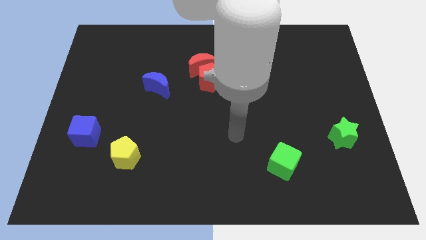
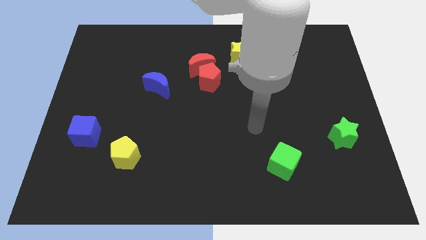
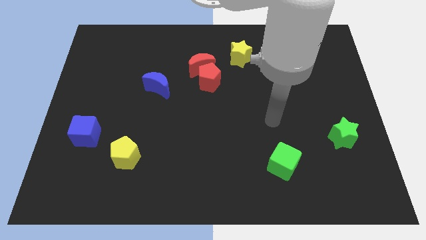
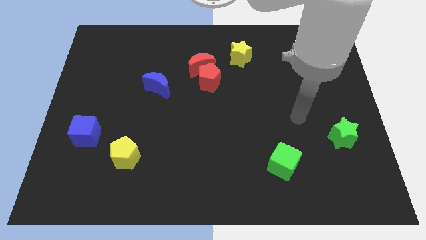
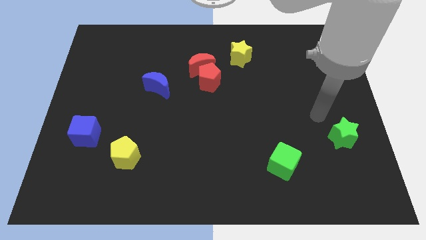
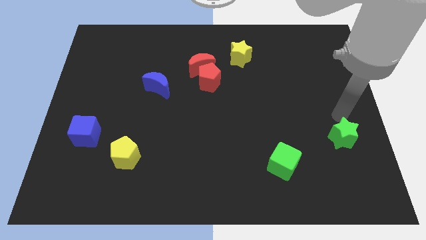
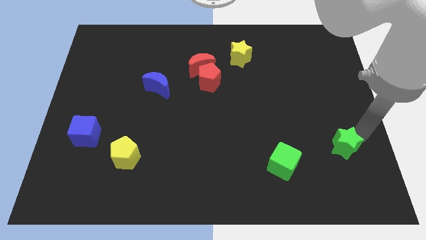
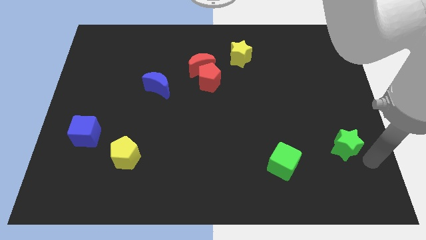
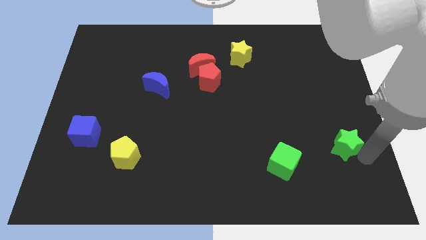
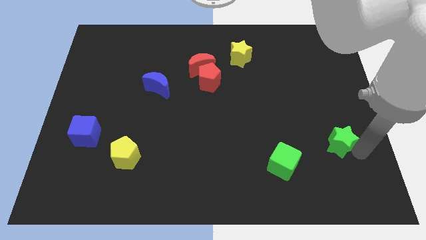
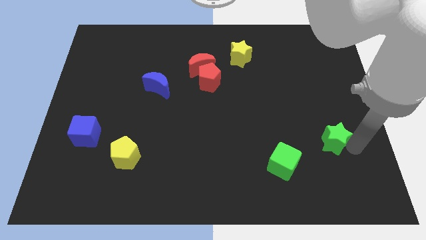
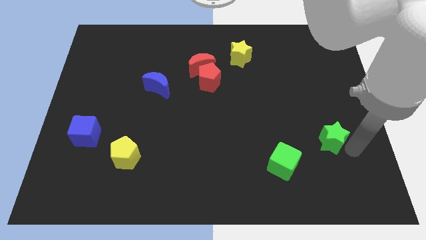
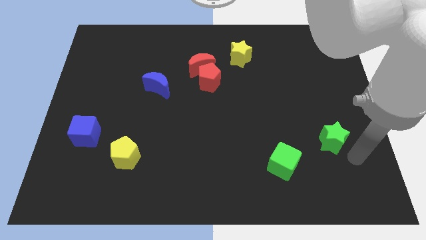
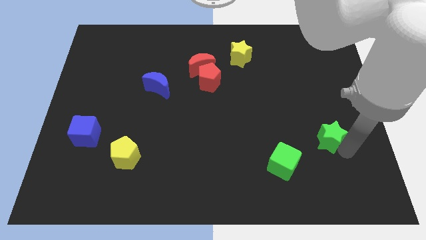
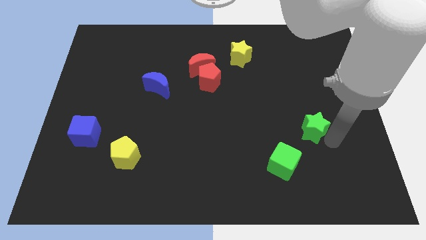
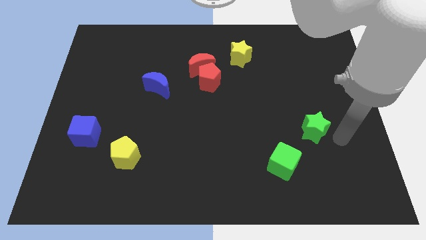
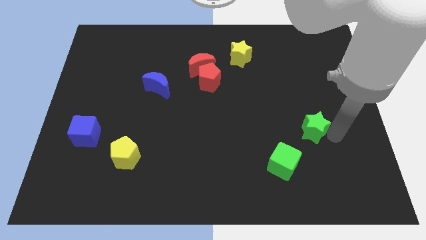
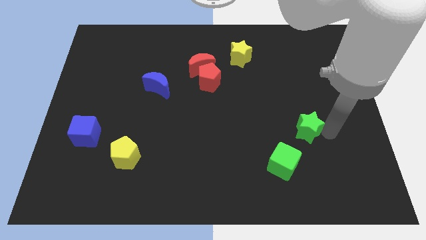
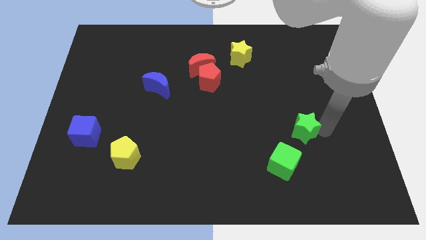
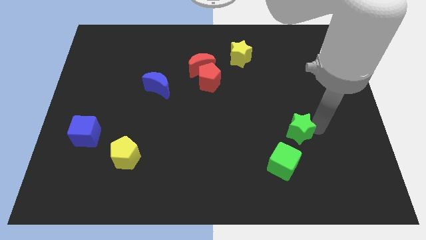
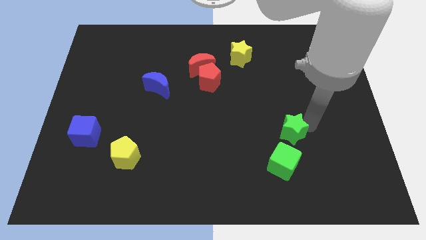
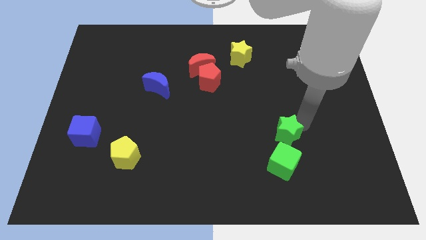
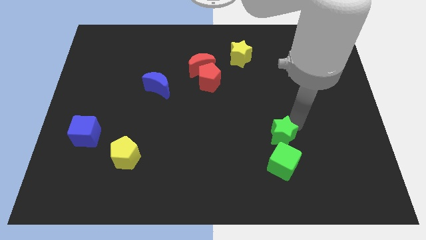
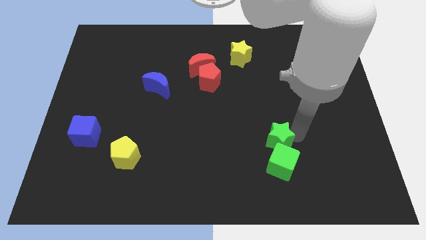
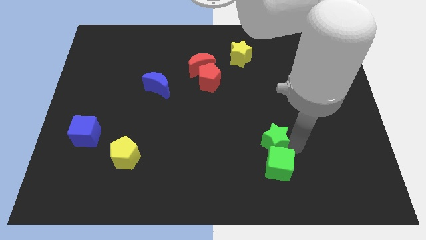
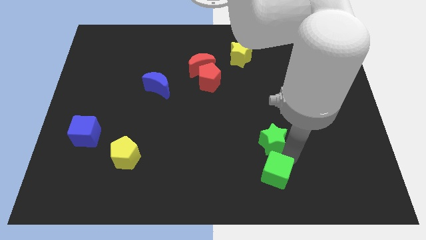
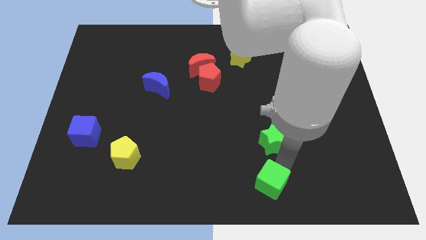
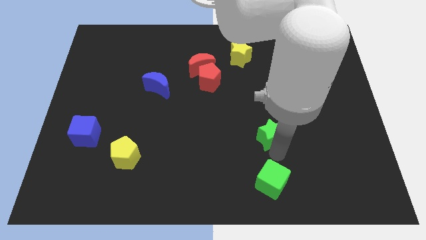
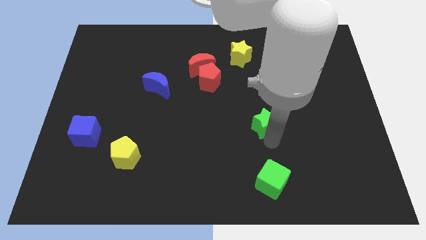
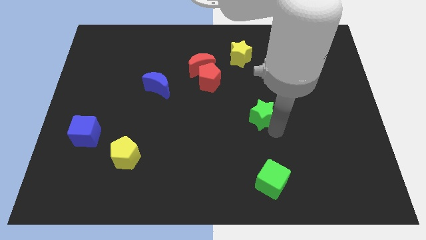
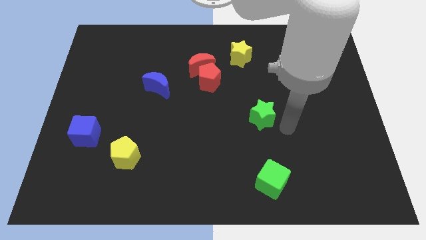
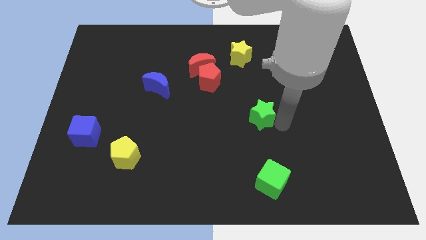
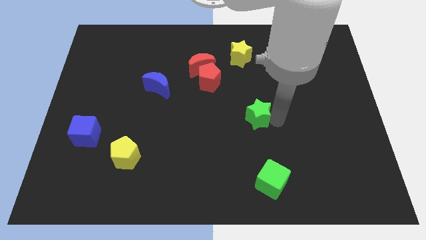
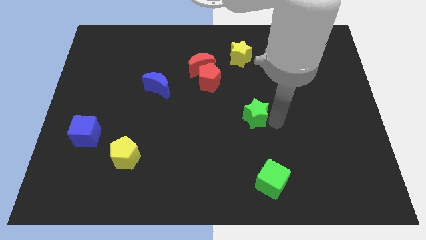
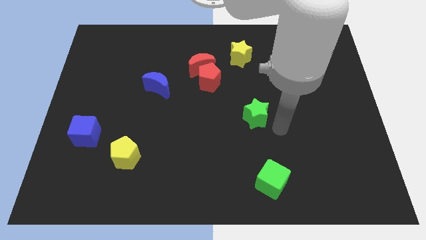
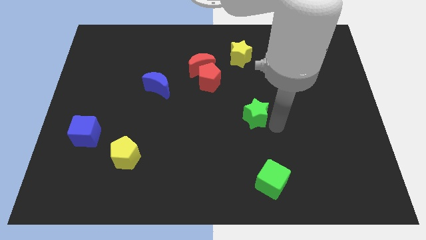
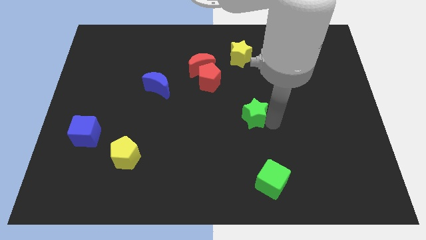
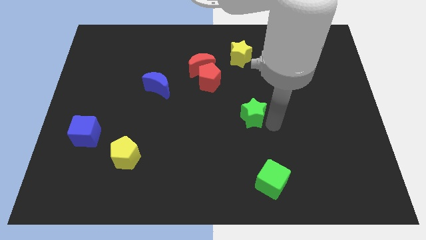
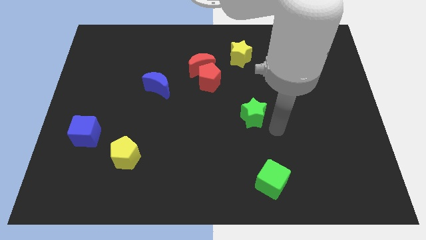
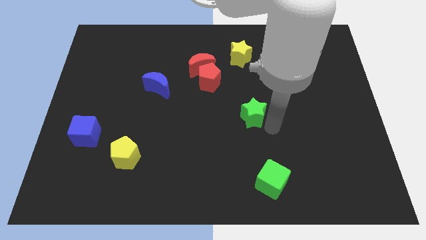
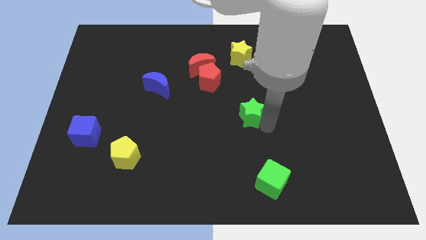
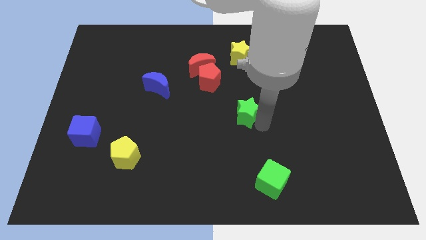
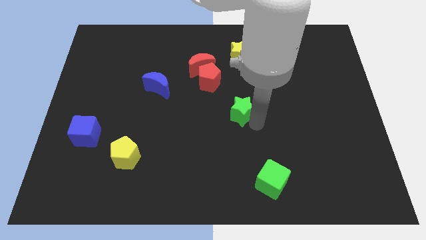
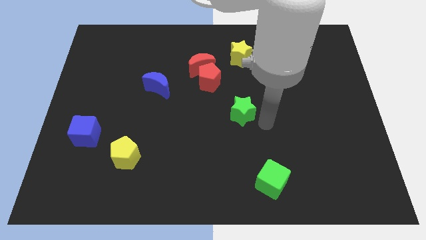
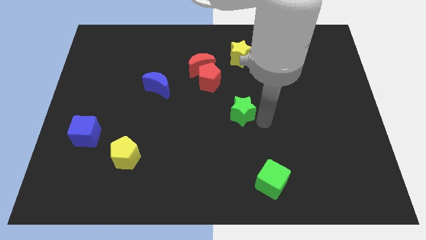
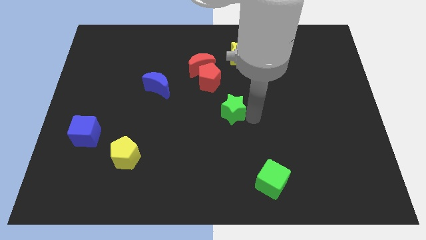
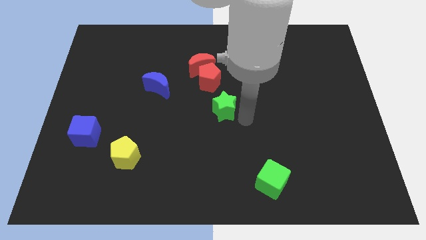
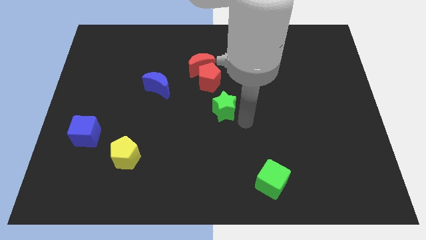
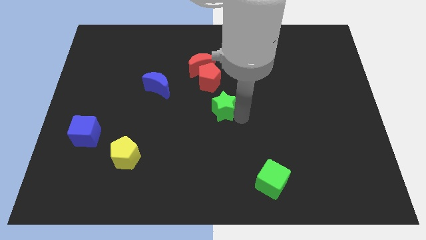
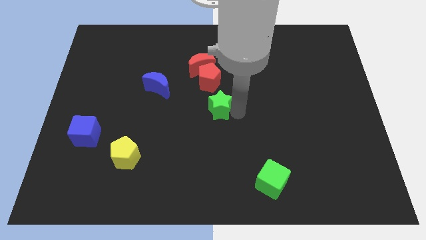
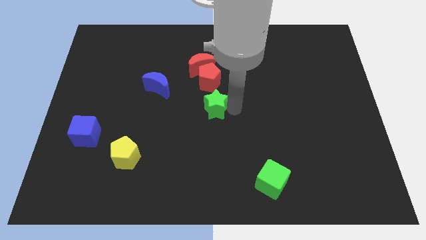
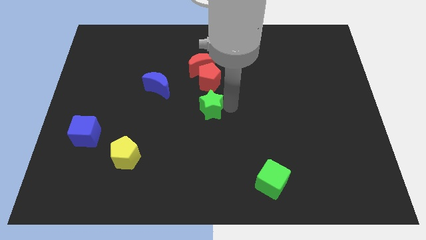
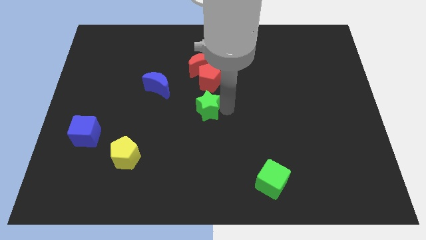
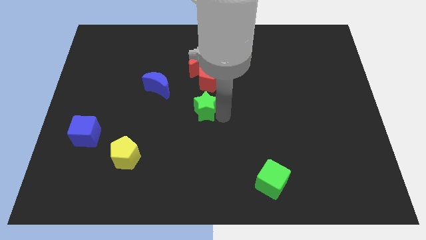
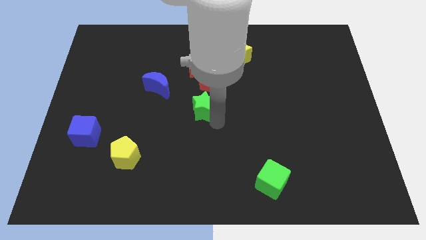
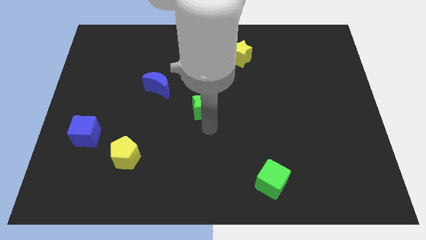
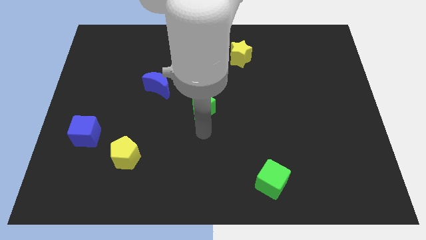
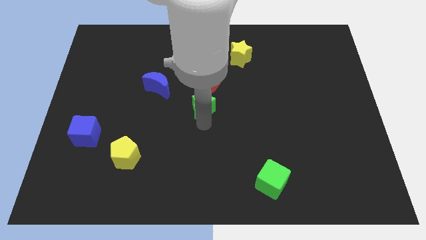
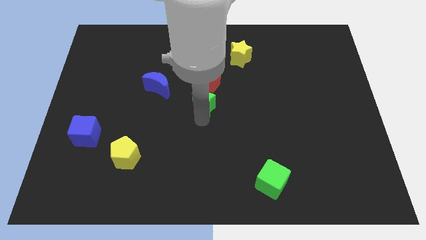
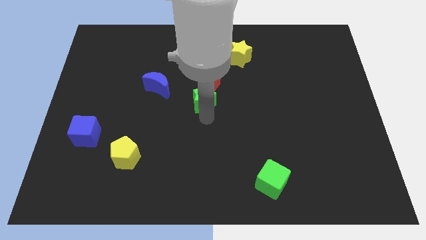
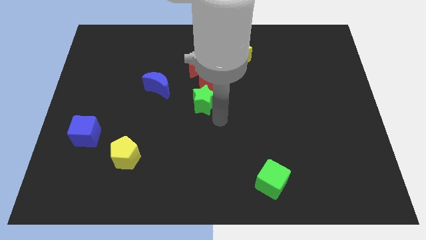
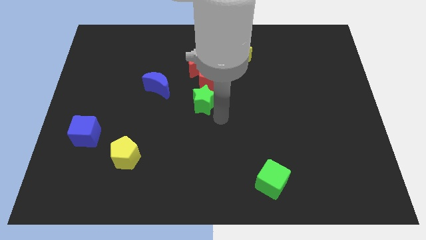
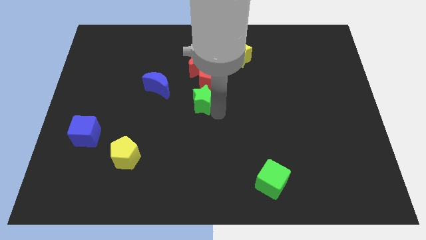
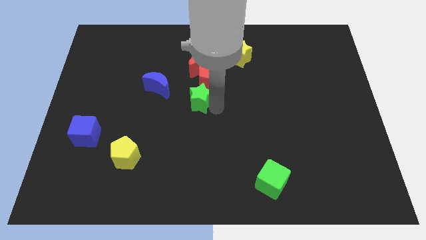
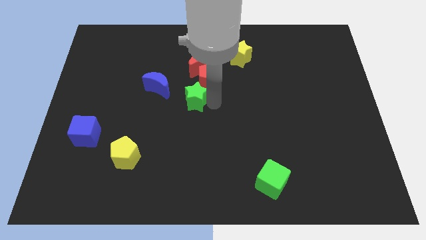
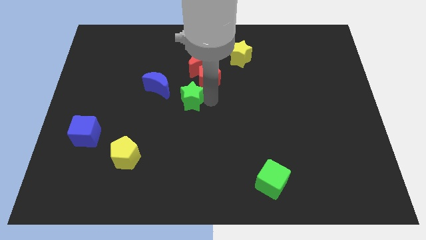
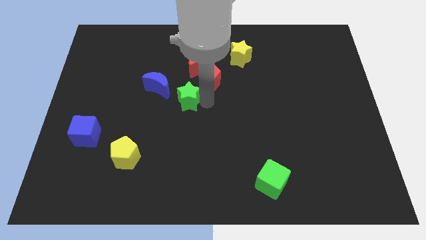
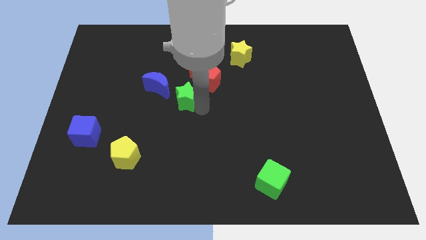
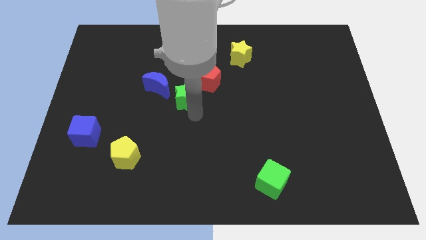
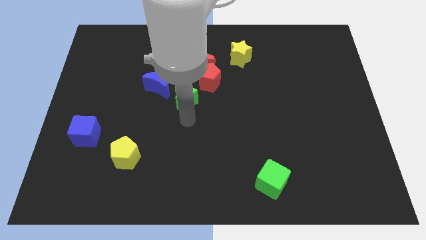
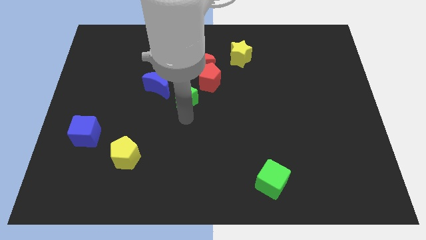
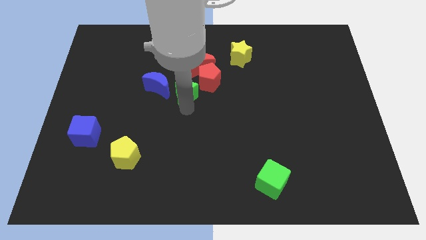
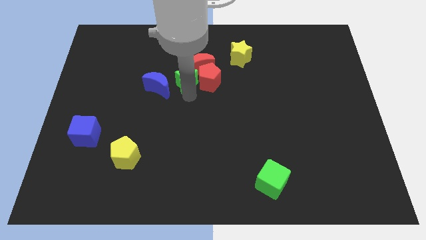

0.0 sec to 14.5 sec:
push the green star diagonally up and to the right of the blue moon

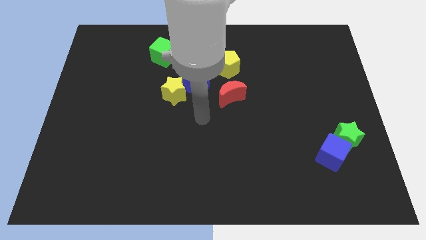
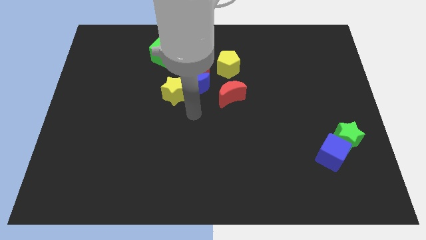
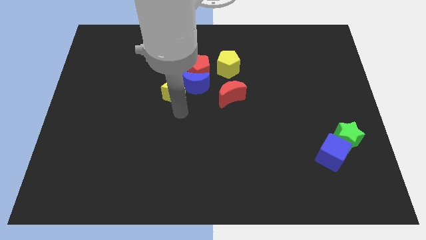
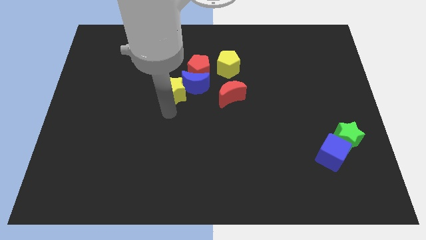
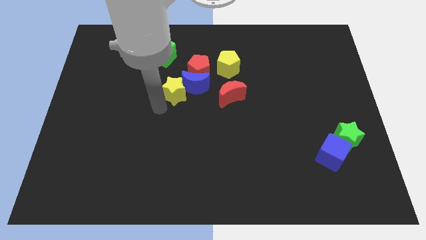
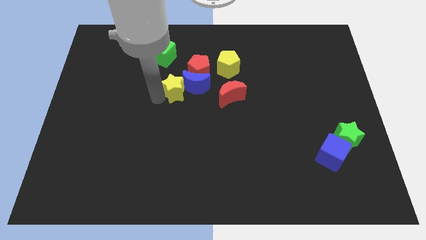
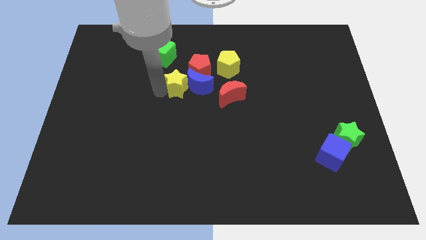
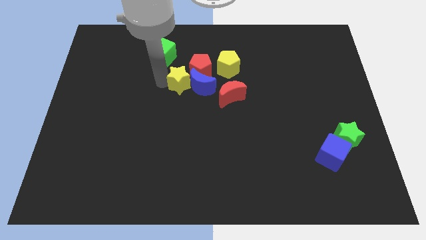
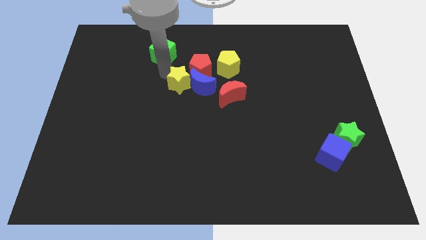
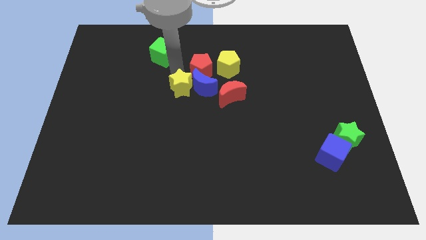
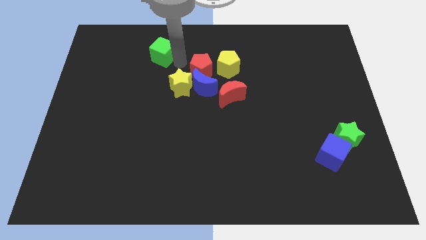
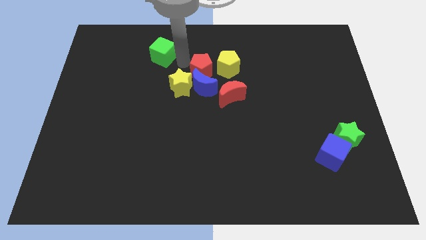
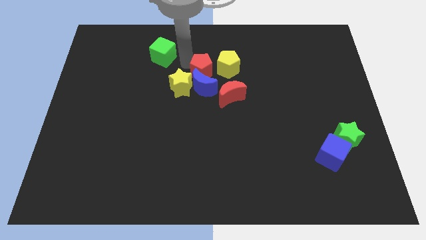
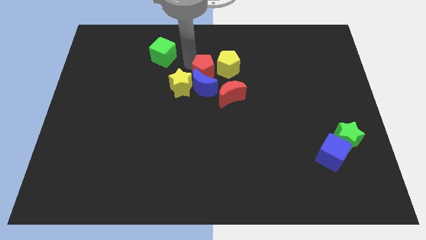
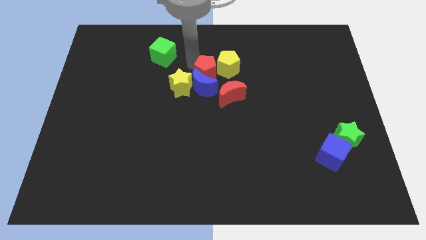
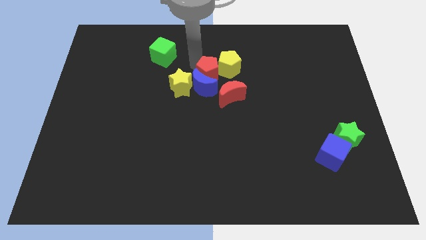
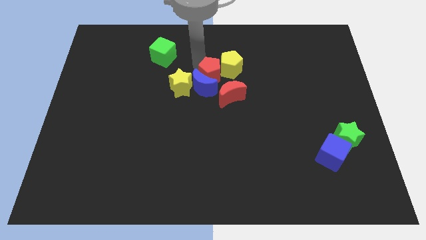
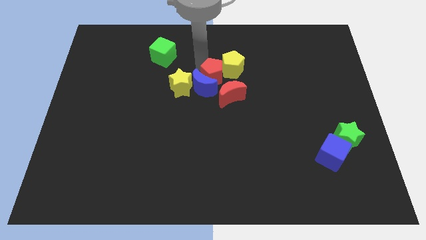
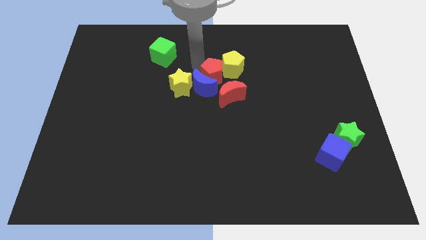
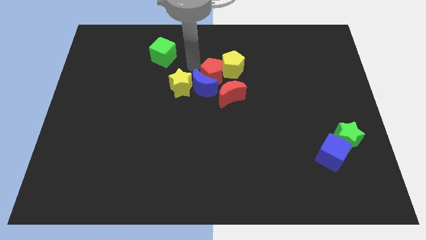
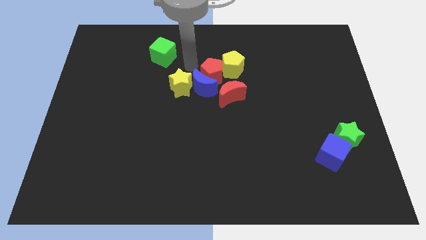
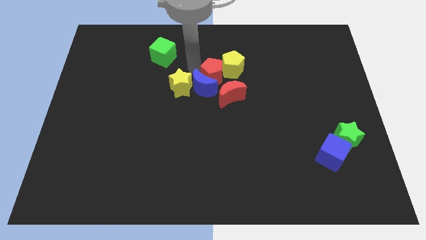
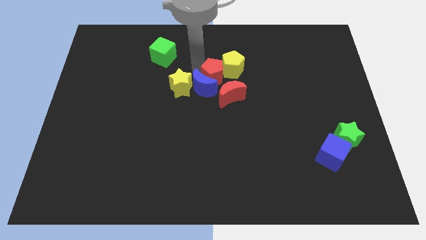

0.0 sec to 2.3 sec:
push the red pentagon just right of the blue moon
